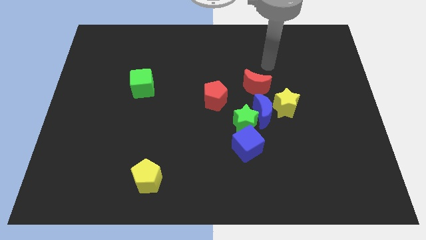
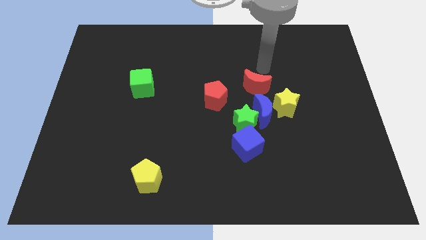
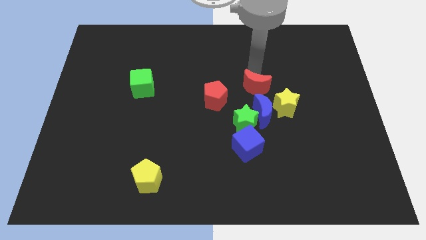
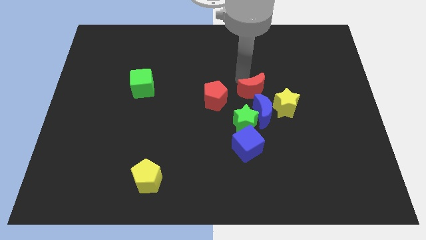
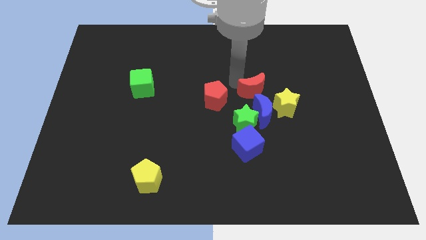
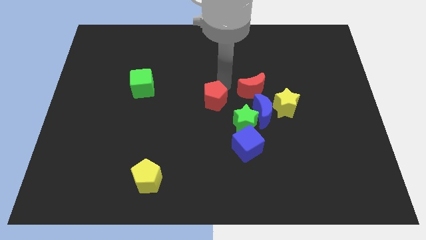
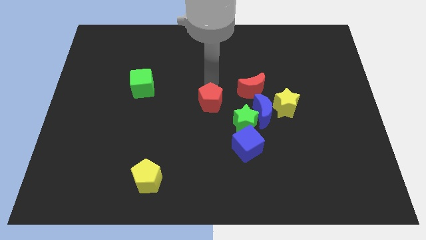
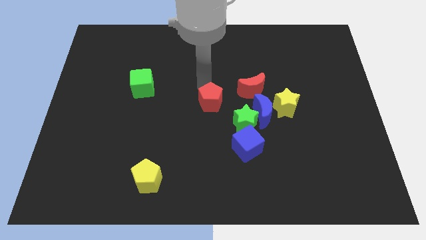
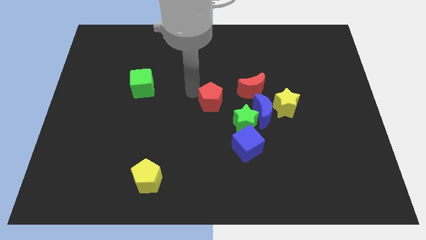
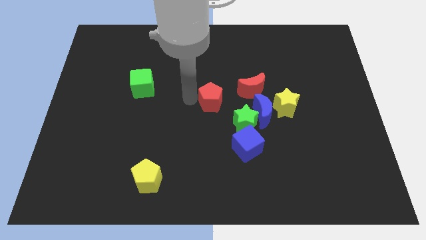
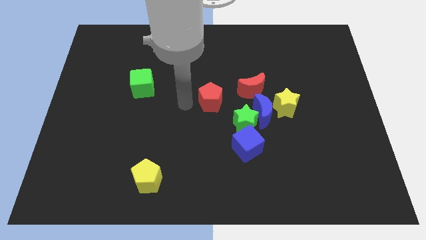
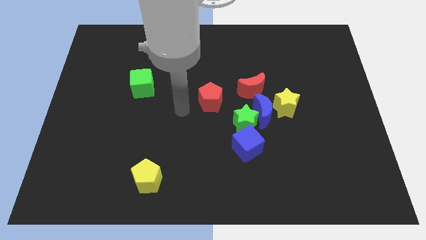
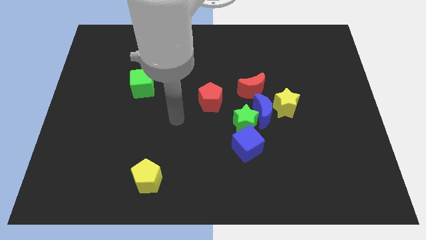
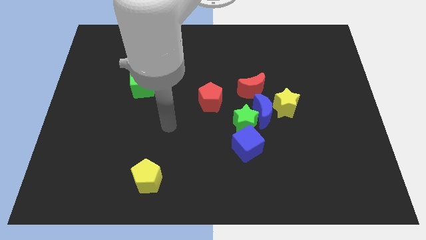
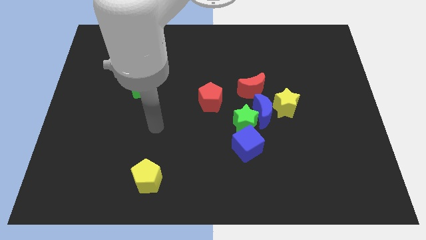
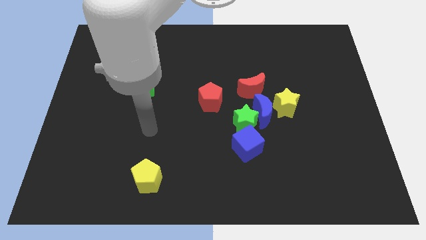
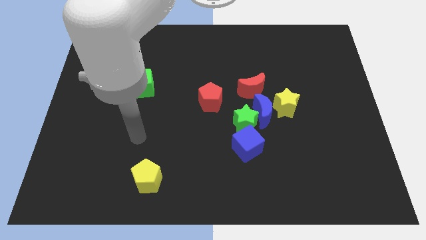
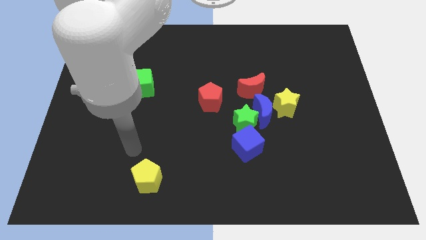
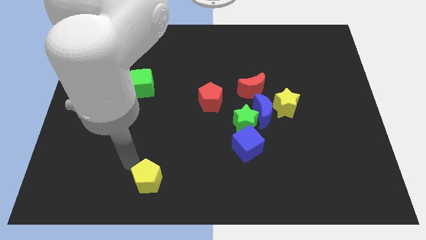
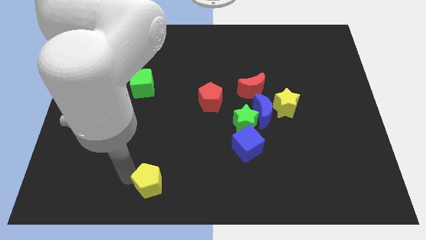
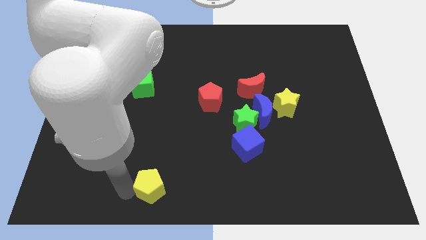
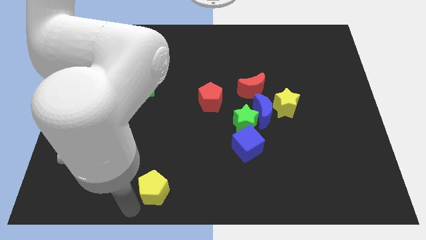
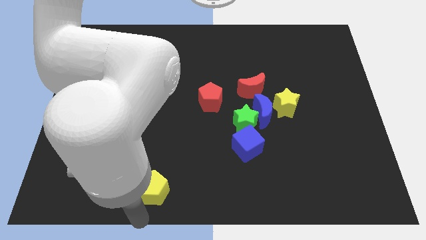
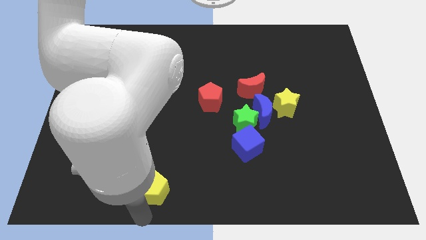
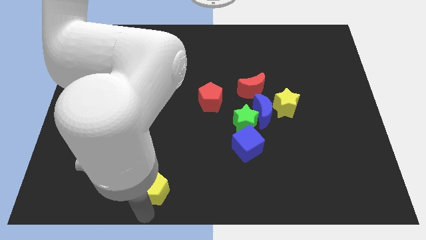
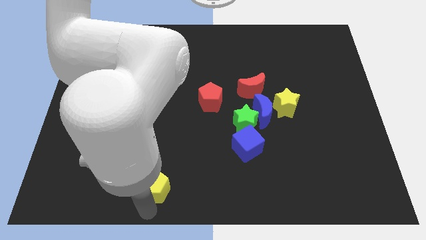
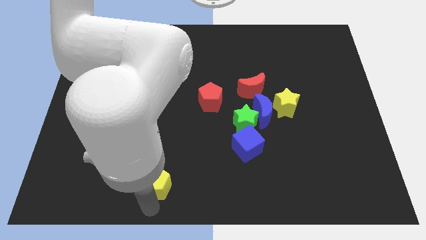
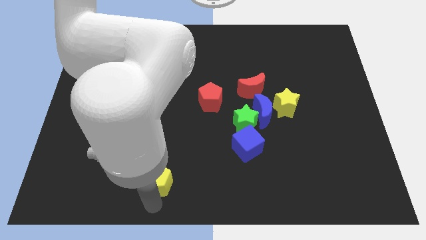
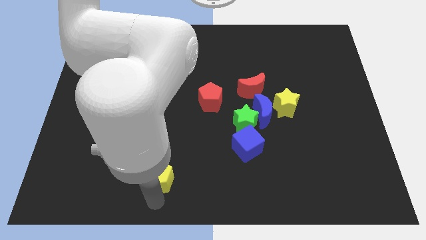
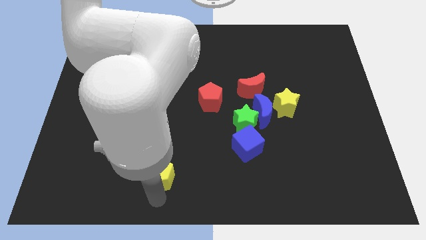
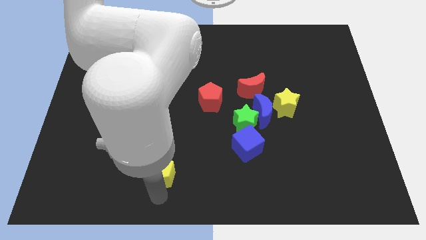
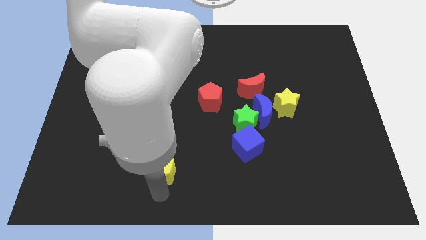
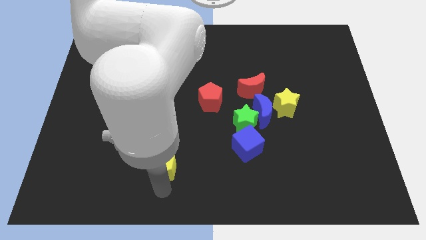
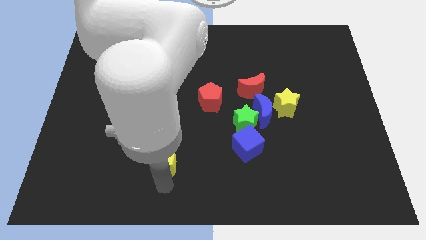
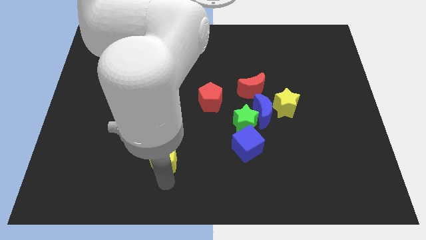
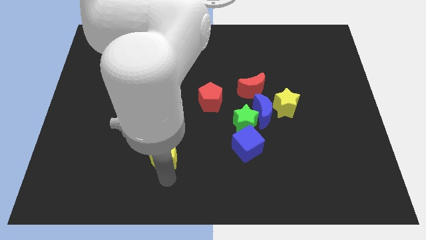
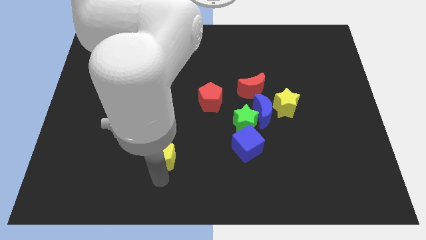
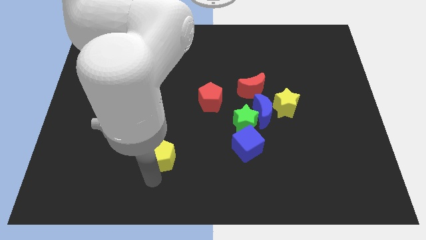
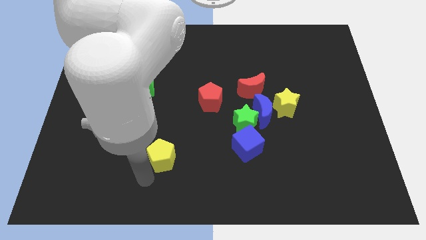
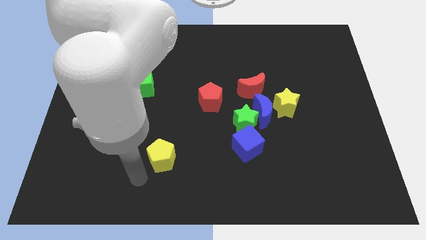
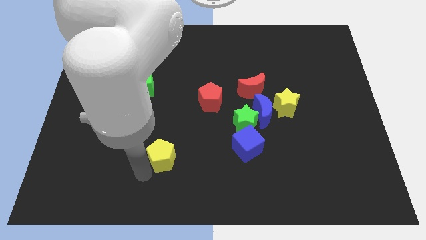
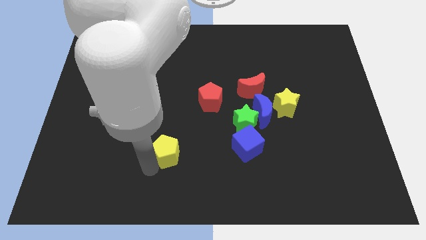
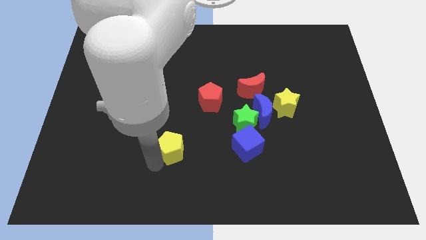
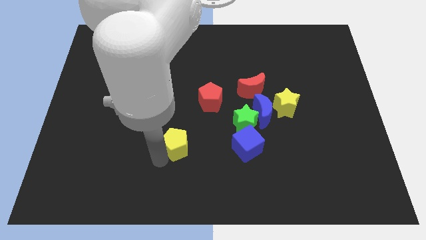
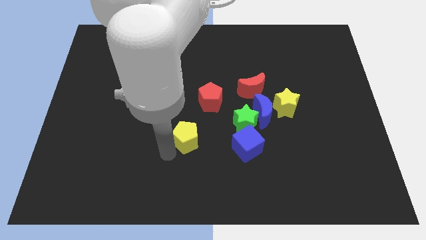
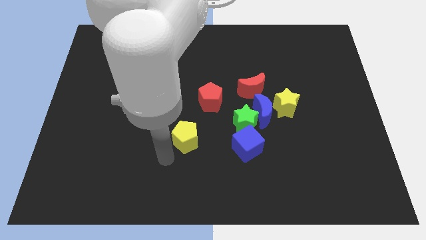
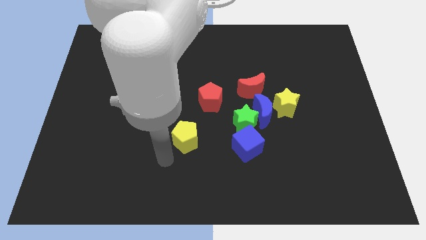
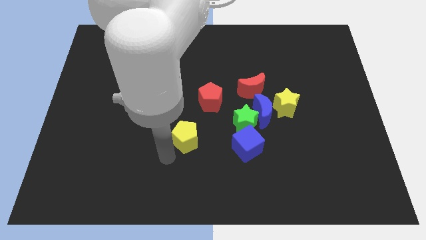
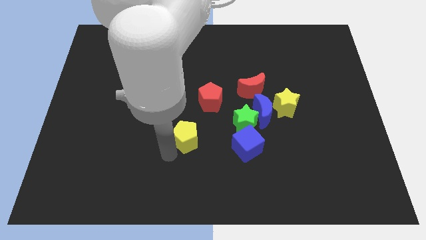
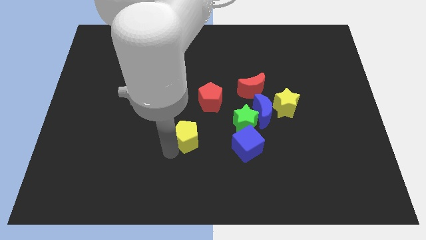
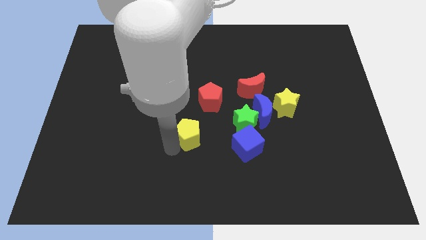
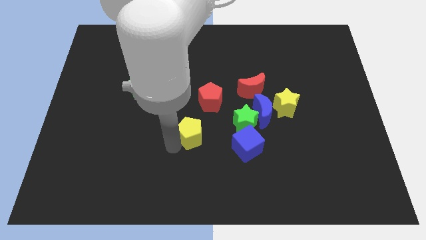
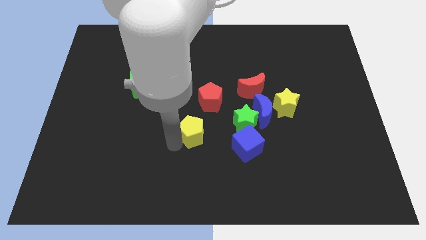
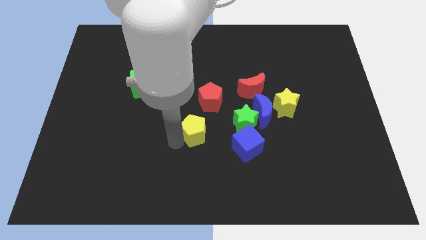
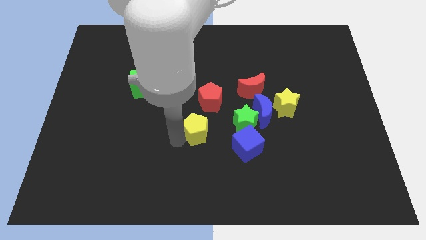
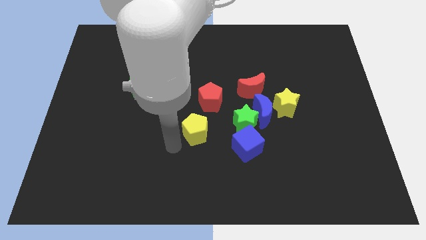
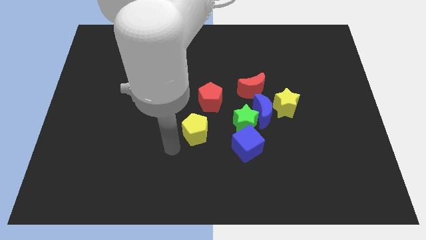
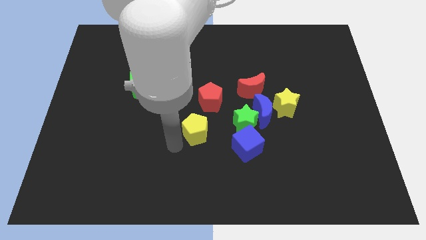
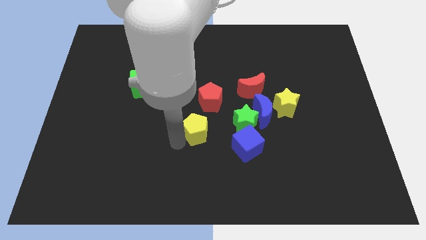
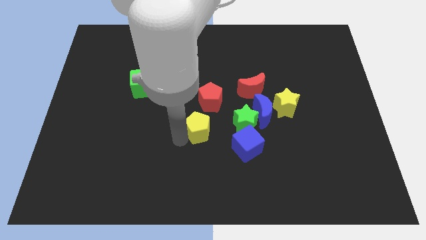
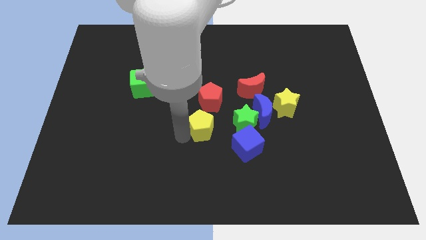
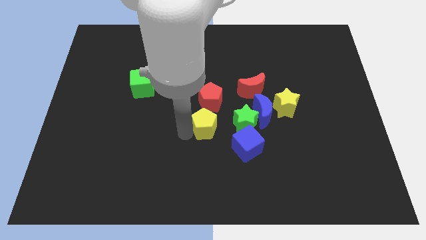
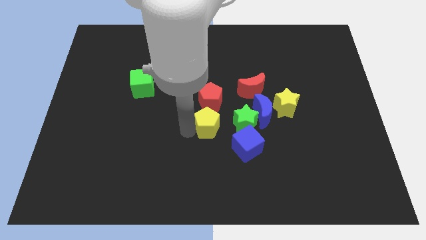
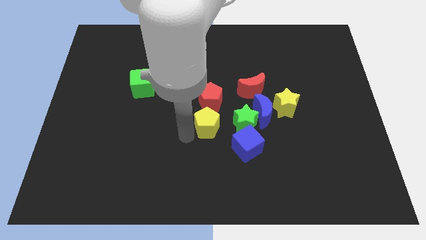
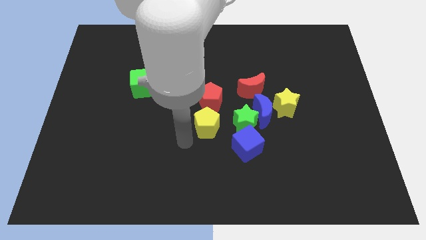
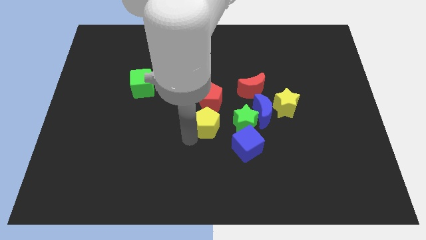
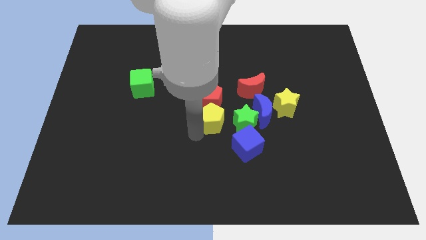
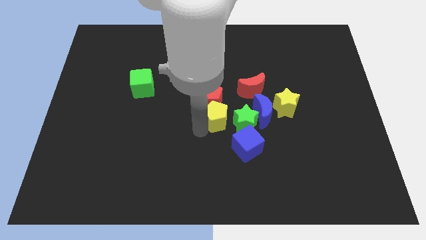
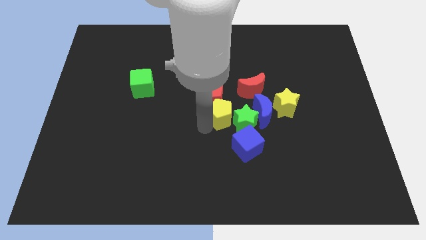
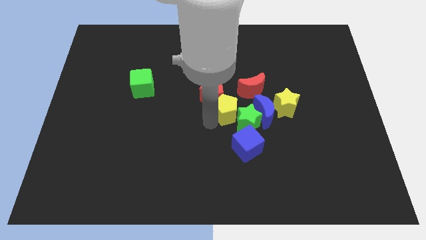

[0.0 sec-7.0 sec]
put the yellow pentagon above the blue cube
